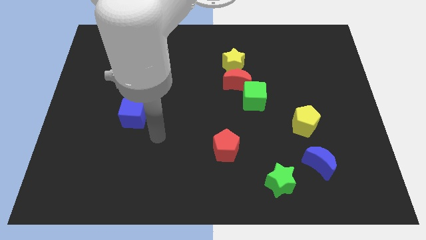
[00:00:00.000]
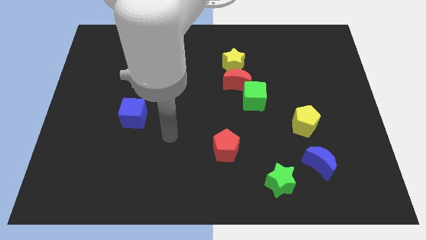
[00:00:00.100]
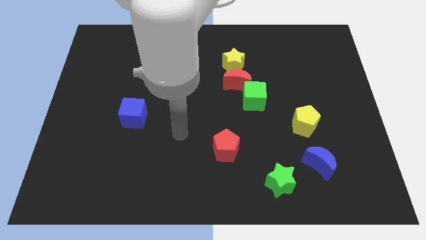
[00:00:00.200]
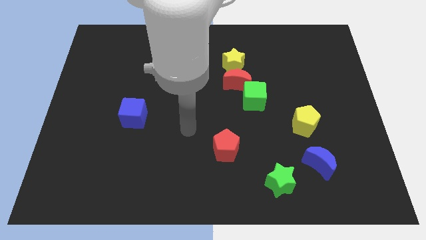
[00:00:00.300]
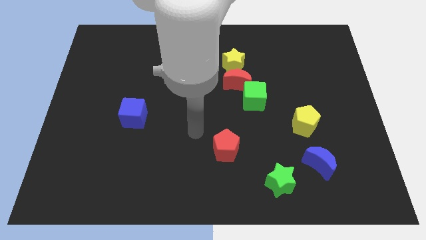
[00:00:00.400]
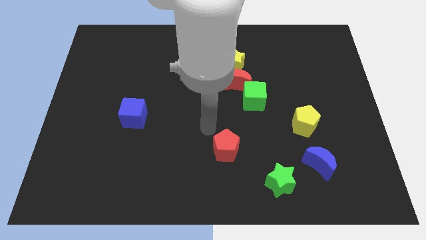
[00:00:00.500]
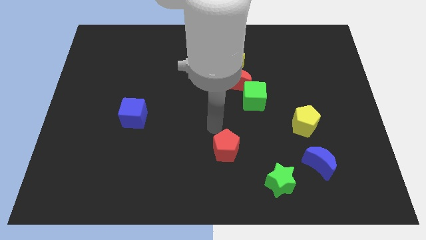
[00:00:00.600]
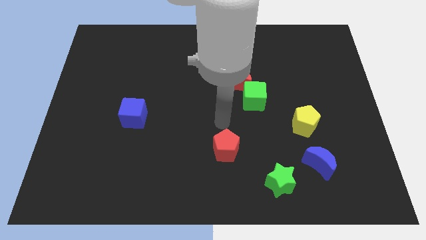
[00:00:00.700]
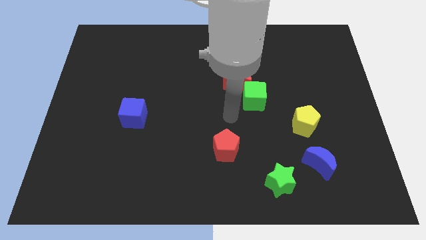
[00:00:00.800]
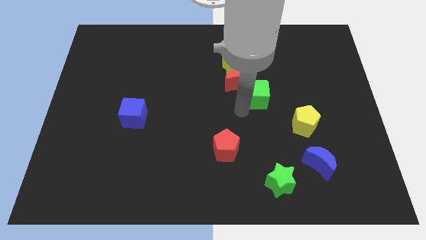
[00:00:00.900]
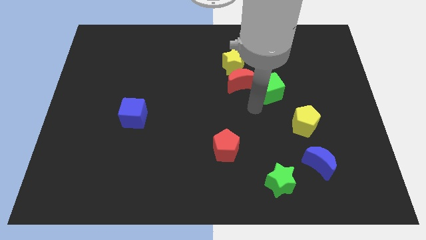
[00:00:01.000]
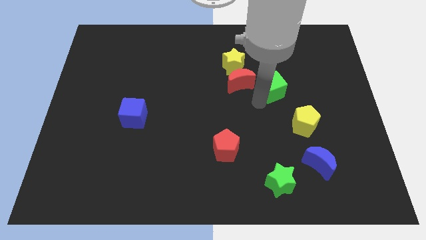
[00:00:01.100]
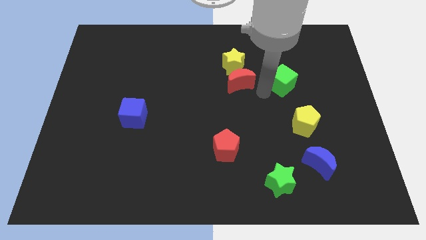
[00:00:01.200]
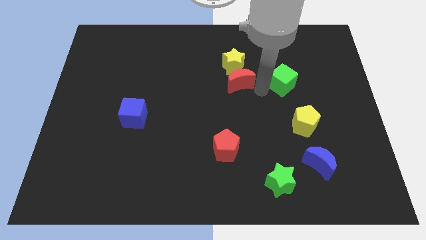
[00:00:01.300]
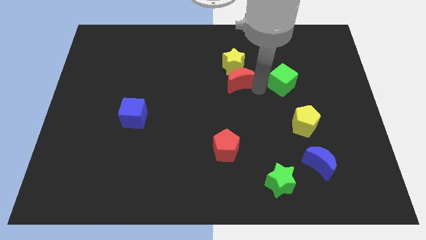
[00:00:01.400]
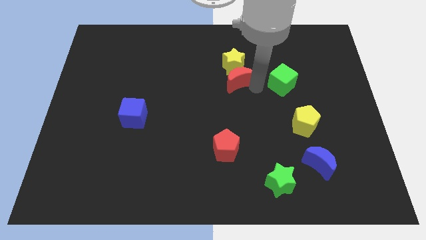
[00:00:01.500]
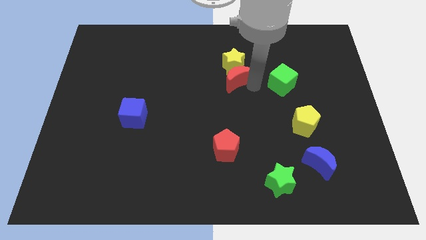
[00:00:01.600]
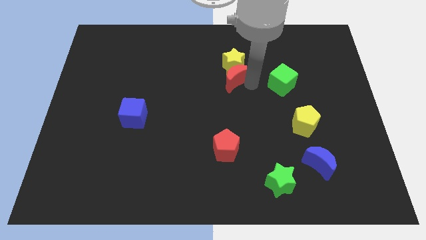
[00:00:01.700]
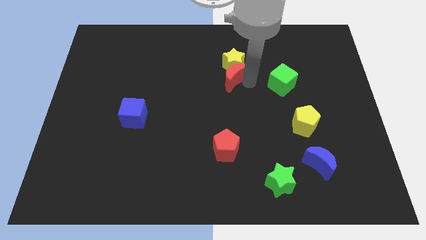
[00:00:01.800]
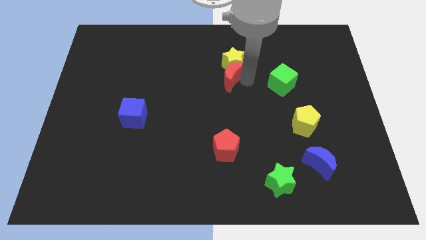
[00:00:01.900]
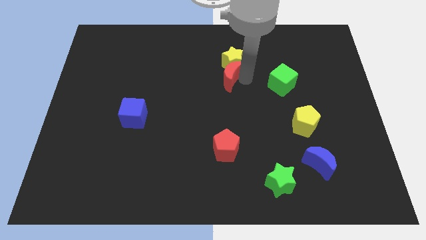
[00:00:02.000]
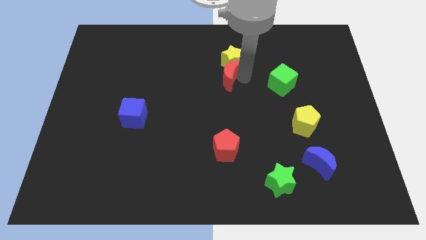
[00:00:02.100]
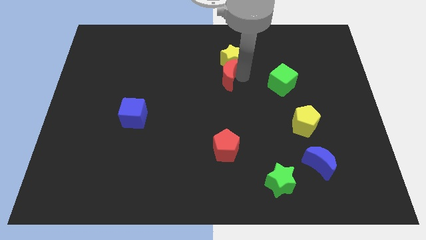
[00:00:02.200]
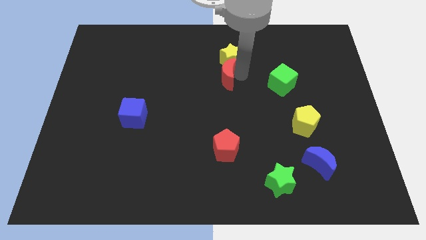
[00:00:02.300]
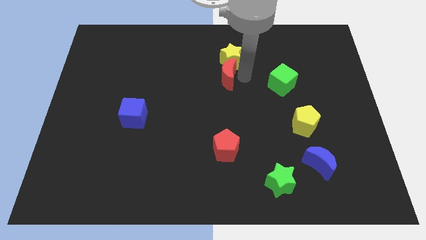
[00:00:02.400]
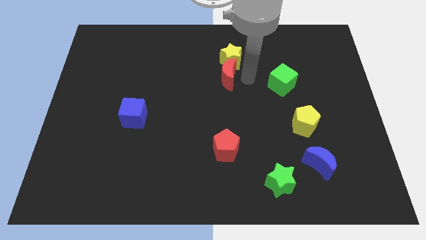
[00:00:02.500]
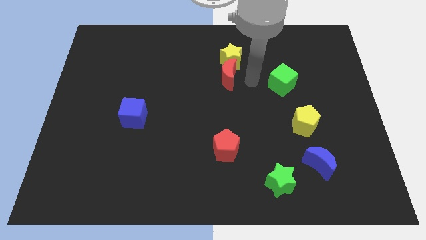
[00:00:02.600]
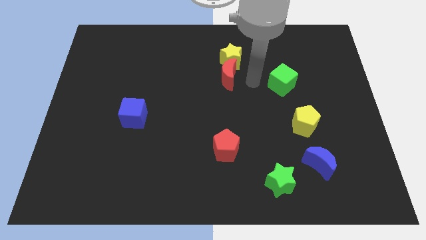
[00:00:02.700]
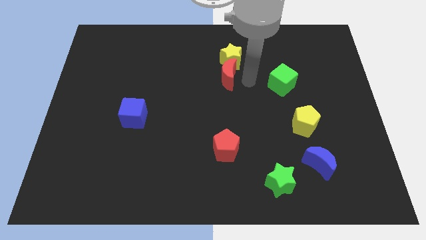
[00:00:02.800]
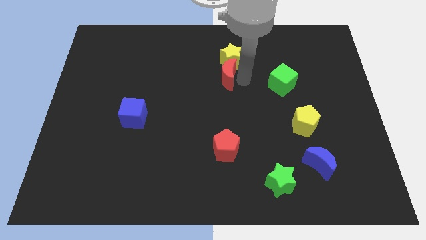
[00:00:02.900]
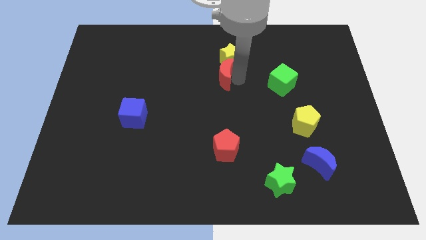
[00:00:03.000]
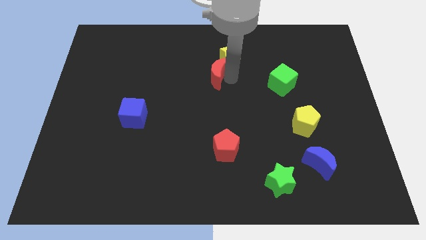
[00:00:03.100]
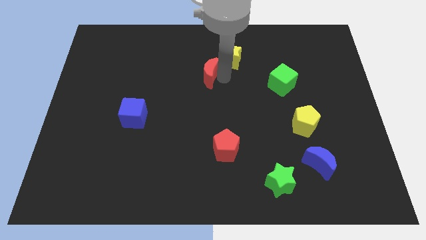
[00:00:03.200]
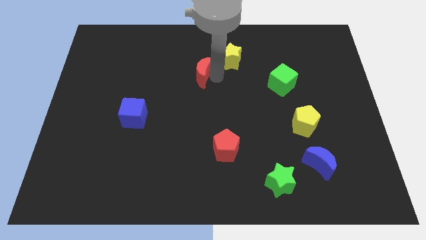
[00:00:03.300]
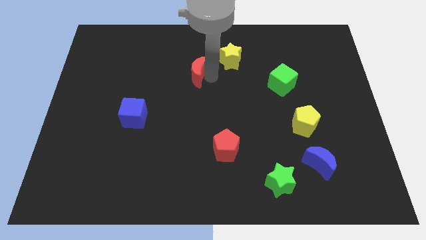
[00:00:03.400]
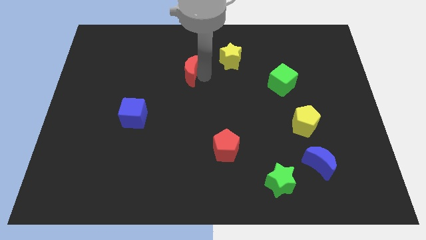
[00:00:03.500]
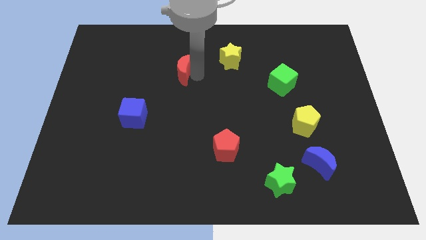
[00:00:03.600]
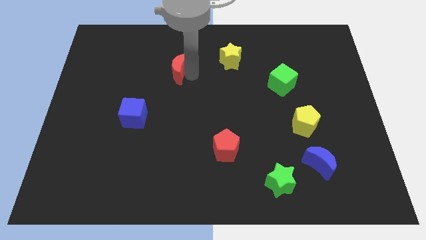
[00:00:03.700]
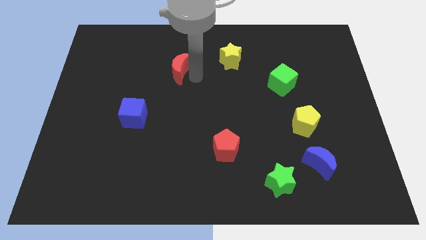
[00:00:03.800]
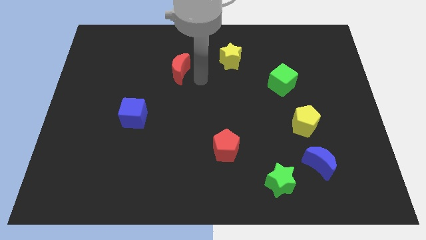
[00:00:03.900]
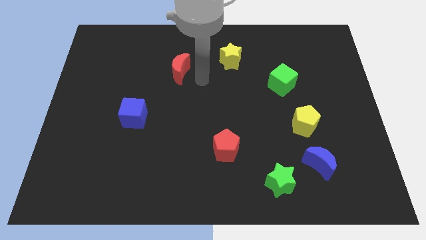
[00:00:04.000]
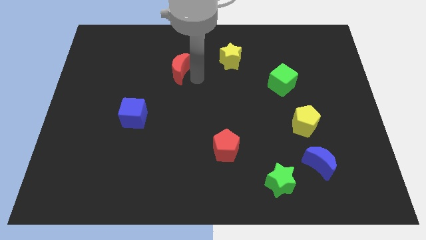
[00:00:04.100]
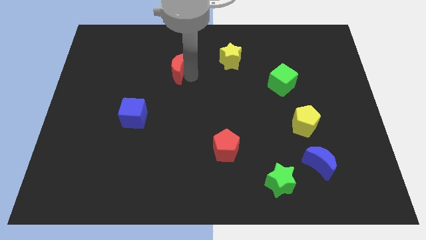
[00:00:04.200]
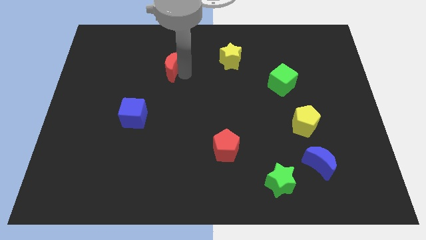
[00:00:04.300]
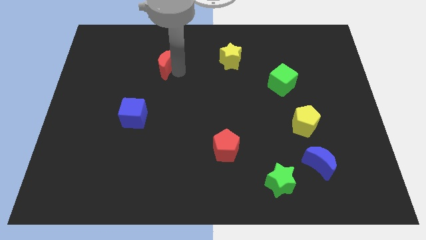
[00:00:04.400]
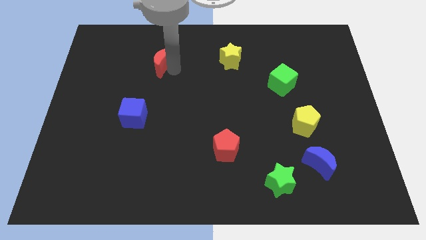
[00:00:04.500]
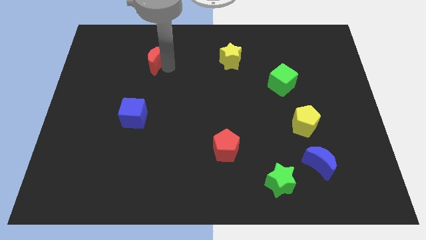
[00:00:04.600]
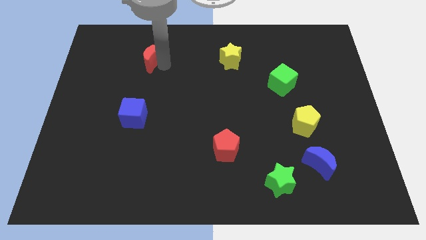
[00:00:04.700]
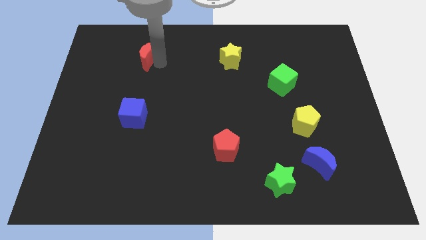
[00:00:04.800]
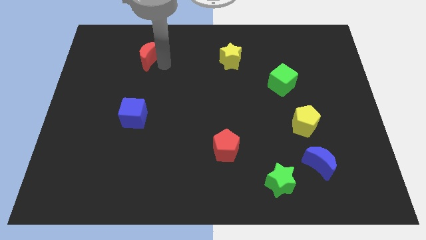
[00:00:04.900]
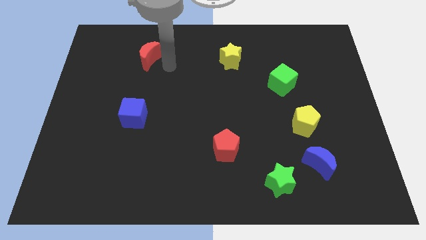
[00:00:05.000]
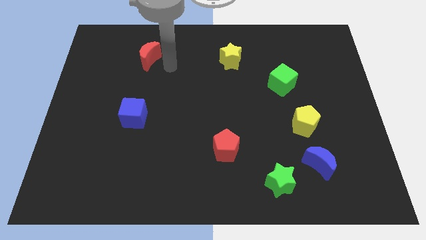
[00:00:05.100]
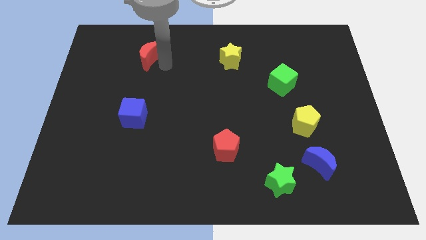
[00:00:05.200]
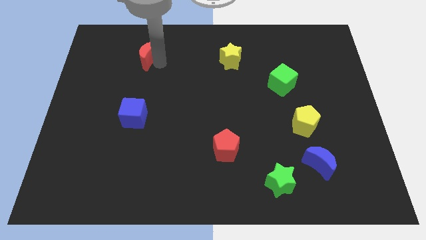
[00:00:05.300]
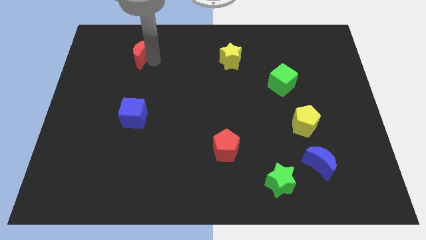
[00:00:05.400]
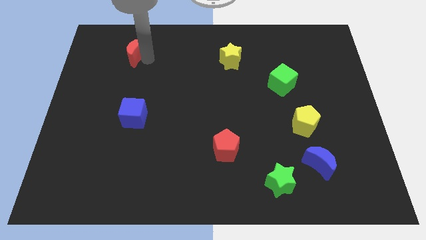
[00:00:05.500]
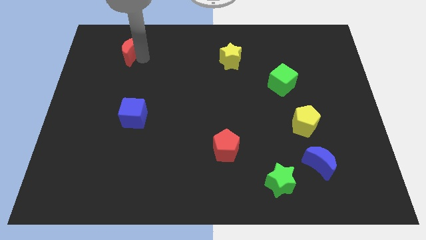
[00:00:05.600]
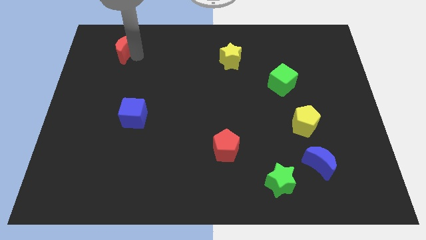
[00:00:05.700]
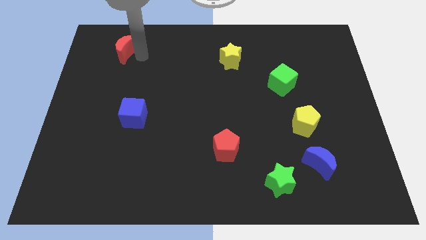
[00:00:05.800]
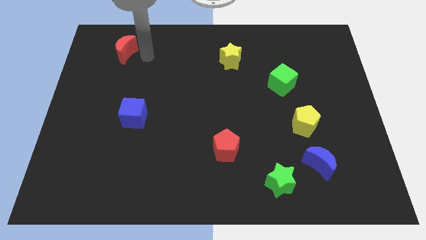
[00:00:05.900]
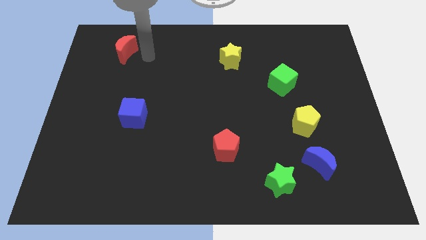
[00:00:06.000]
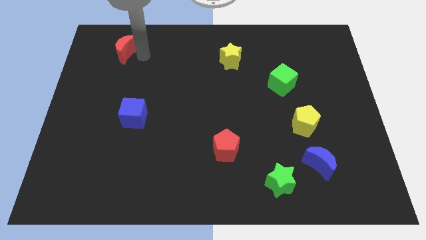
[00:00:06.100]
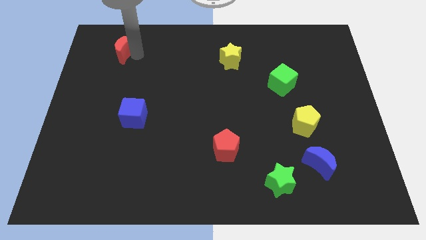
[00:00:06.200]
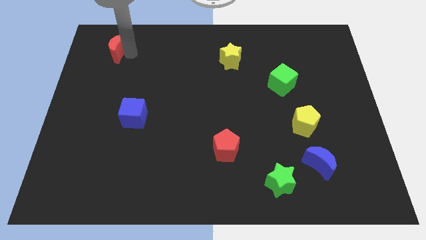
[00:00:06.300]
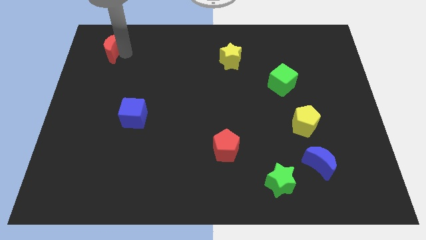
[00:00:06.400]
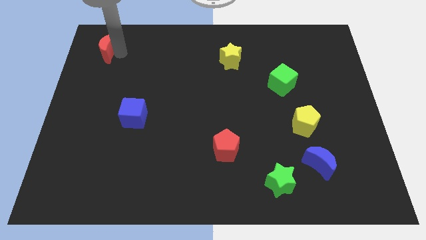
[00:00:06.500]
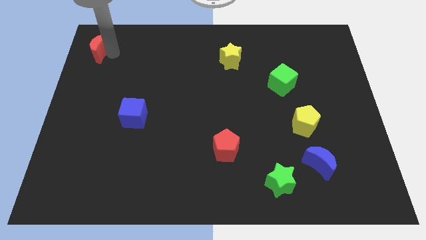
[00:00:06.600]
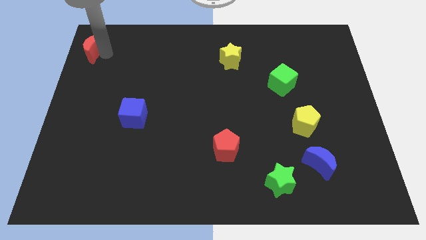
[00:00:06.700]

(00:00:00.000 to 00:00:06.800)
push the red moon to the upper left corner
